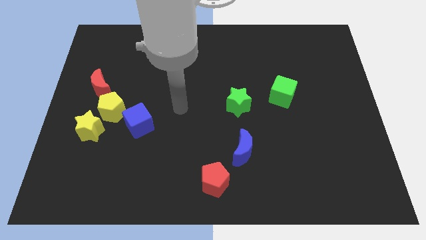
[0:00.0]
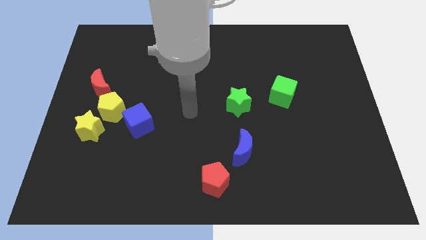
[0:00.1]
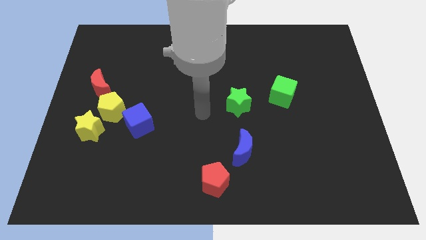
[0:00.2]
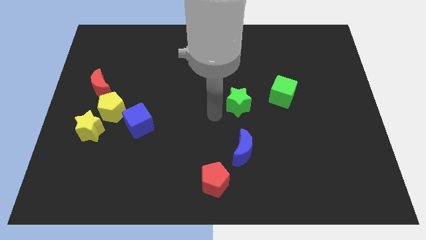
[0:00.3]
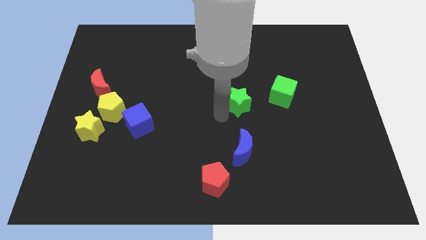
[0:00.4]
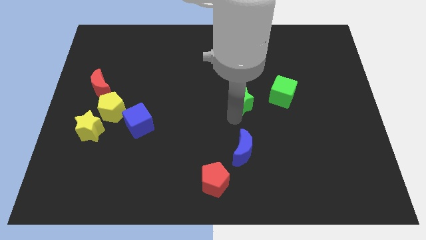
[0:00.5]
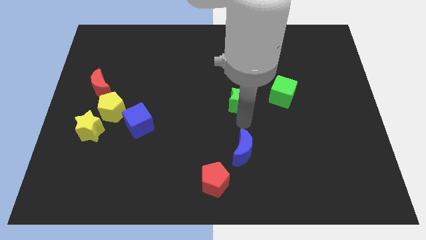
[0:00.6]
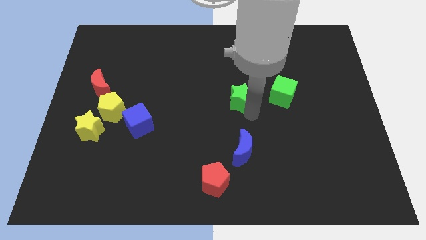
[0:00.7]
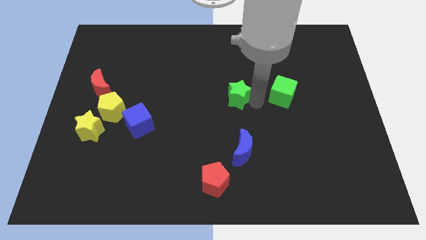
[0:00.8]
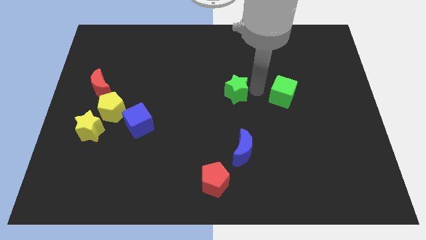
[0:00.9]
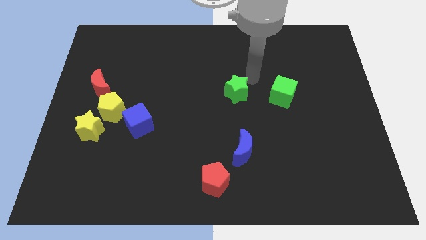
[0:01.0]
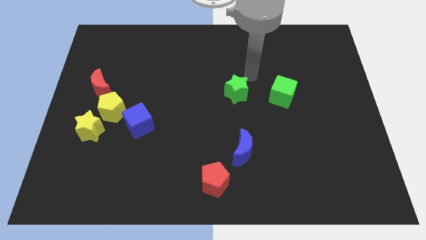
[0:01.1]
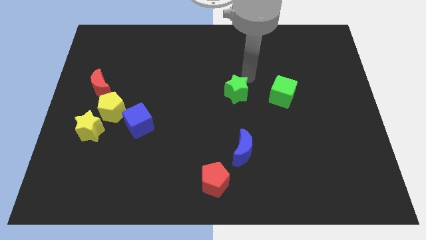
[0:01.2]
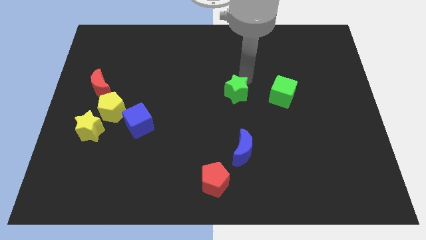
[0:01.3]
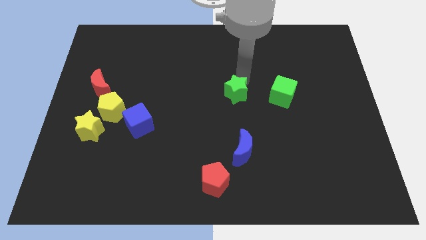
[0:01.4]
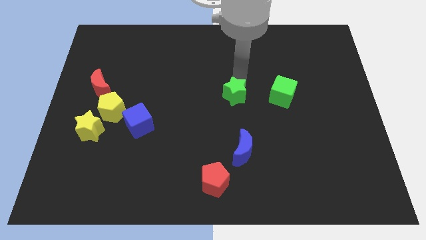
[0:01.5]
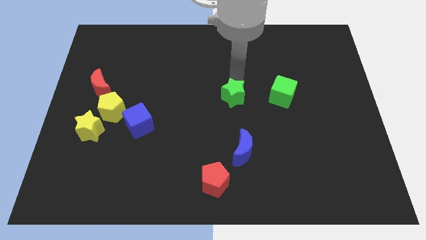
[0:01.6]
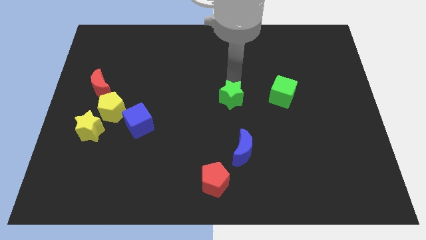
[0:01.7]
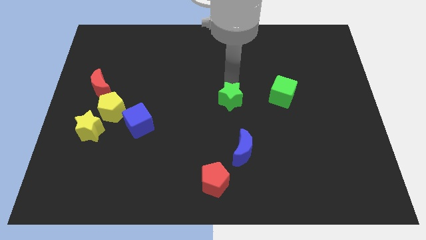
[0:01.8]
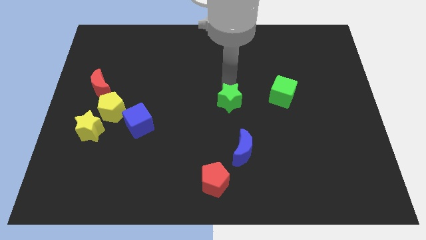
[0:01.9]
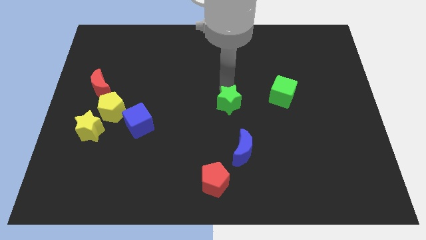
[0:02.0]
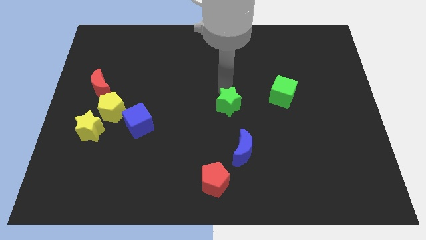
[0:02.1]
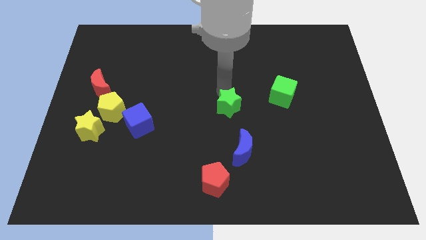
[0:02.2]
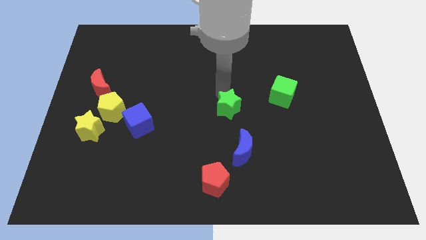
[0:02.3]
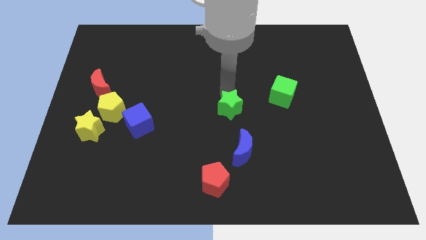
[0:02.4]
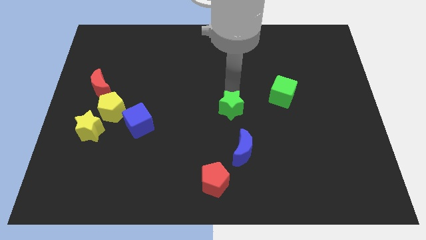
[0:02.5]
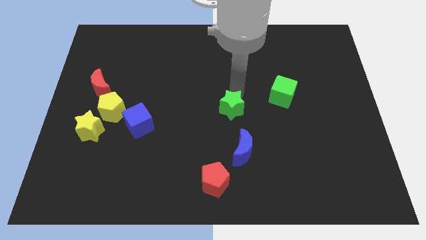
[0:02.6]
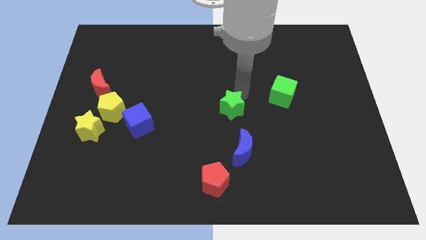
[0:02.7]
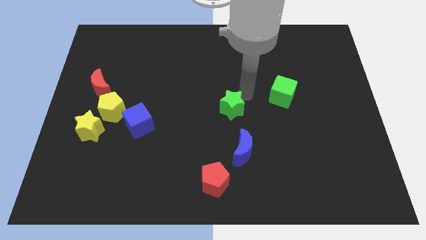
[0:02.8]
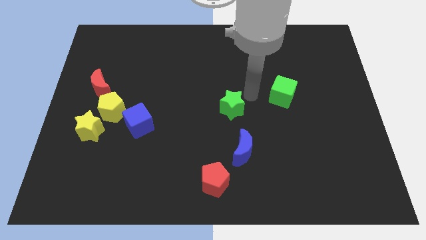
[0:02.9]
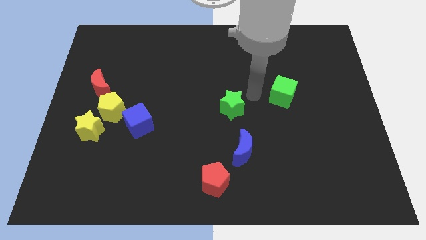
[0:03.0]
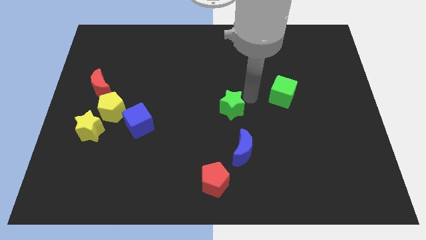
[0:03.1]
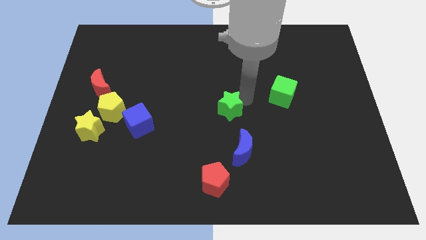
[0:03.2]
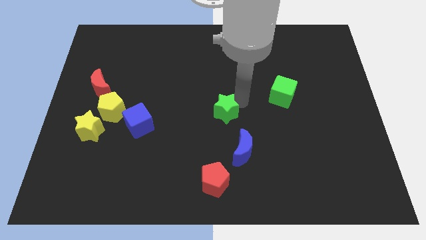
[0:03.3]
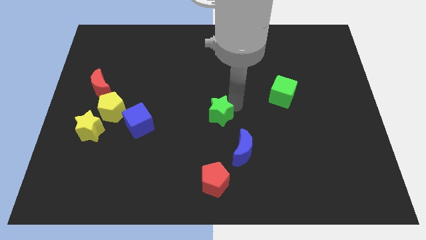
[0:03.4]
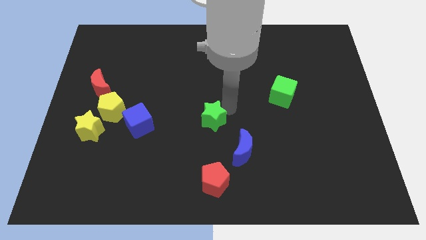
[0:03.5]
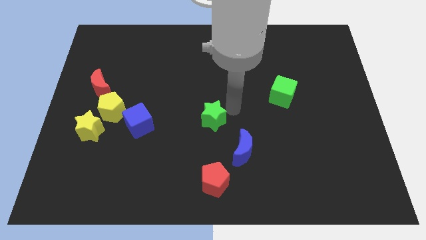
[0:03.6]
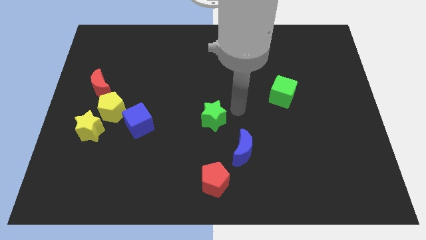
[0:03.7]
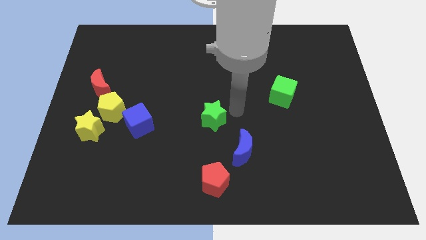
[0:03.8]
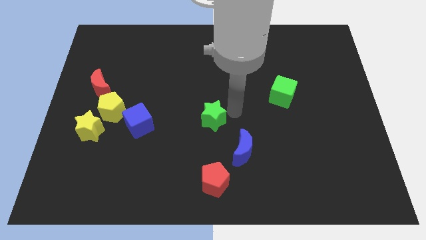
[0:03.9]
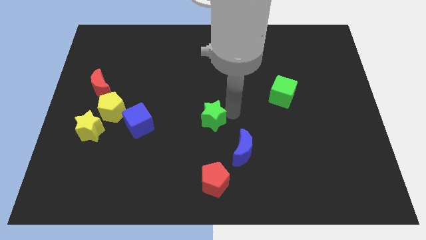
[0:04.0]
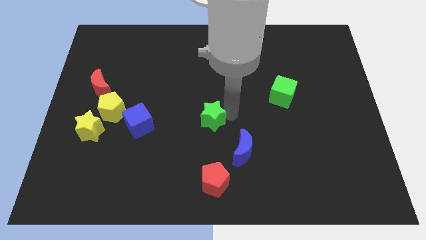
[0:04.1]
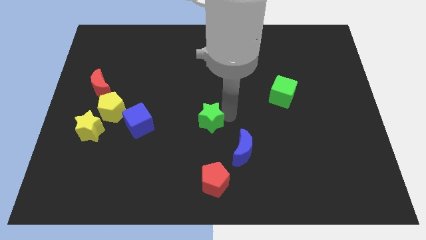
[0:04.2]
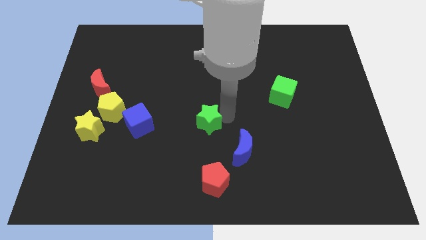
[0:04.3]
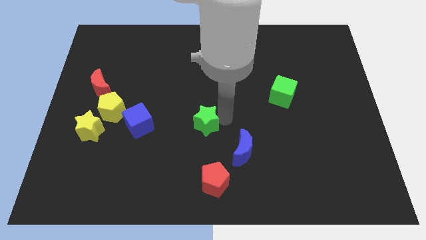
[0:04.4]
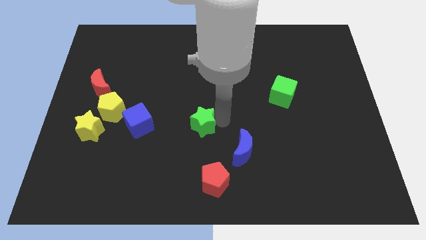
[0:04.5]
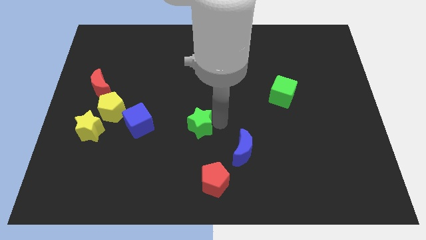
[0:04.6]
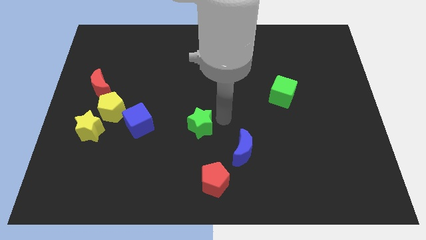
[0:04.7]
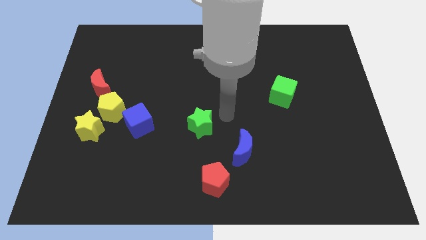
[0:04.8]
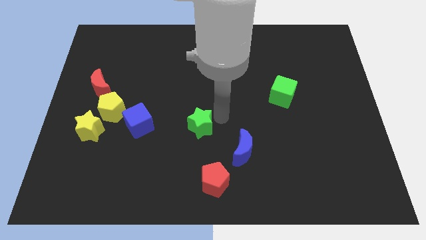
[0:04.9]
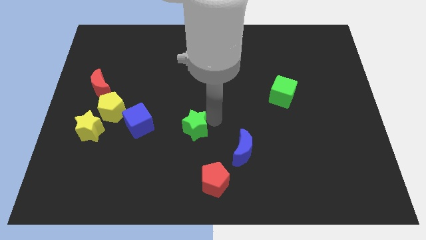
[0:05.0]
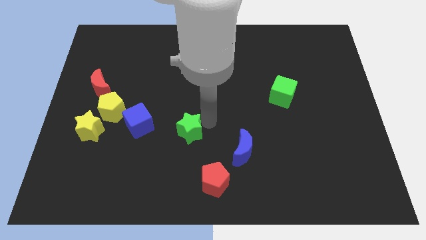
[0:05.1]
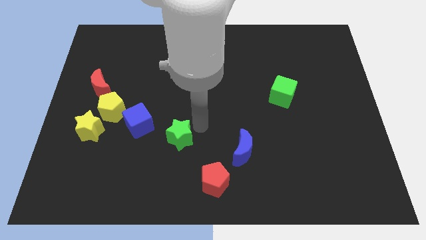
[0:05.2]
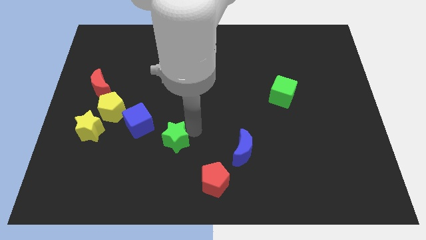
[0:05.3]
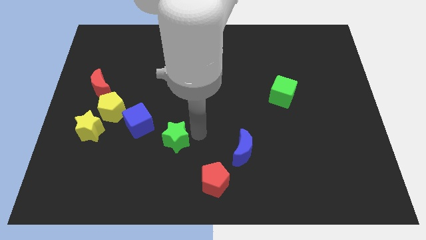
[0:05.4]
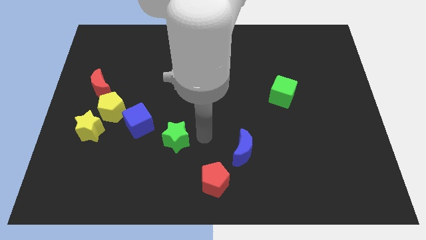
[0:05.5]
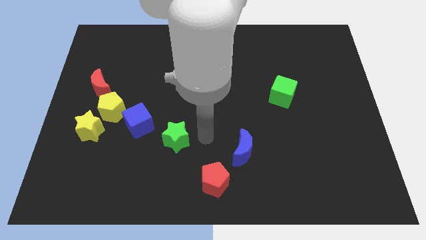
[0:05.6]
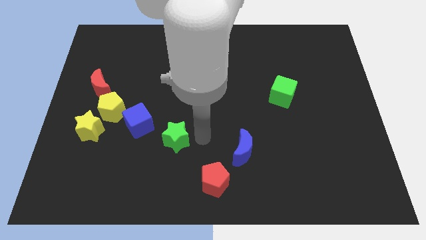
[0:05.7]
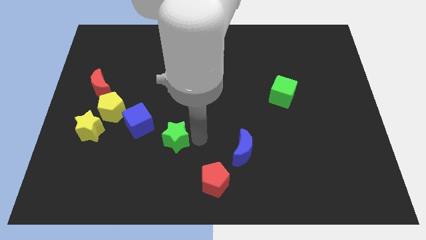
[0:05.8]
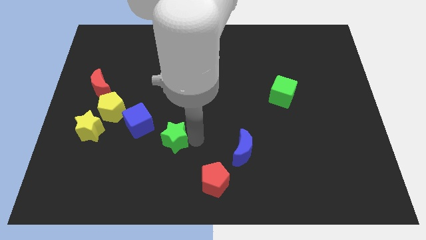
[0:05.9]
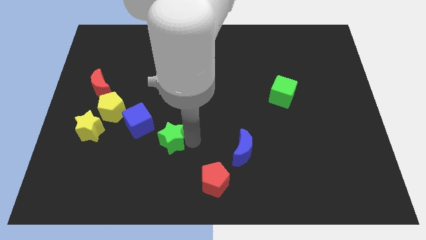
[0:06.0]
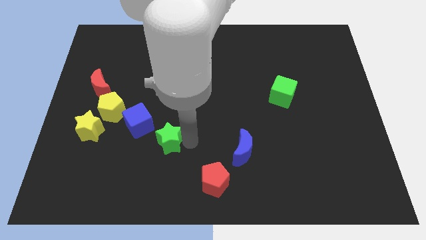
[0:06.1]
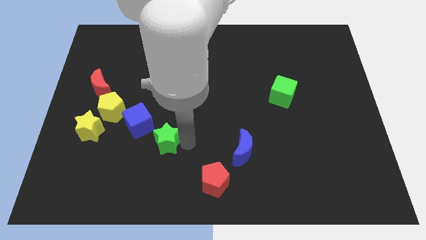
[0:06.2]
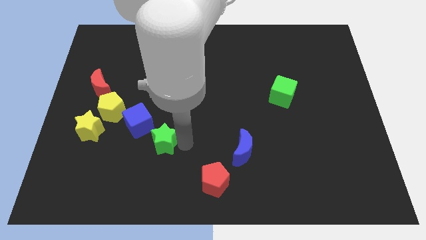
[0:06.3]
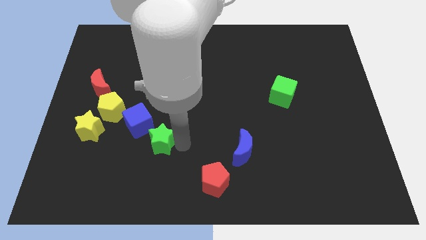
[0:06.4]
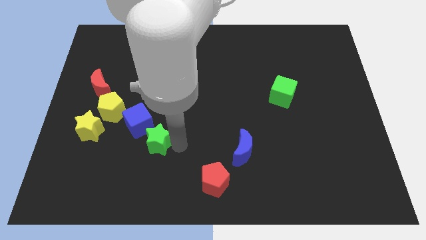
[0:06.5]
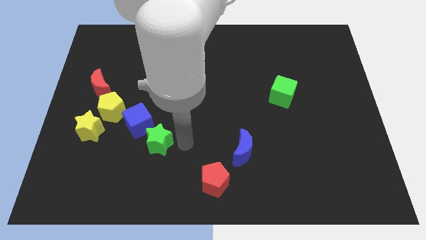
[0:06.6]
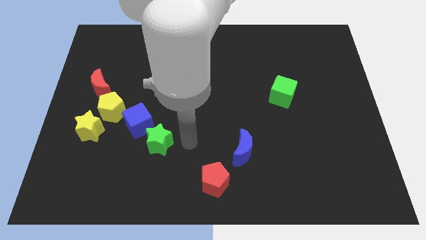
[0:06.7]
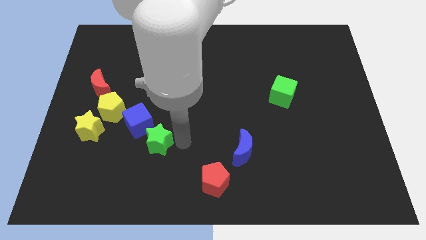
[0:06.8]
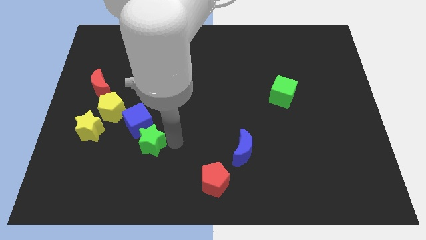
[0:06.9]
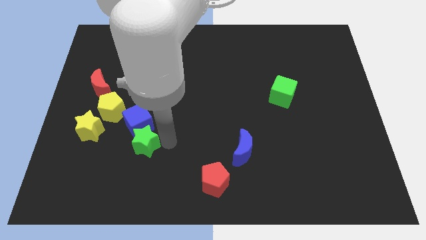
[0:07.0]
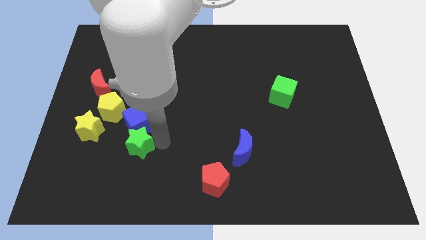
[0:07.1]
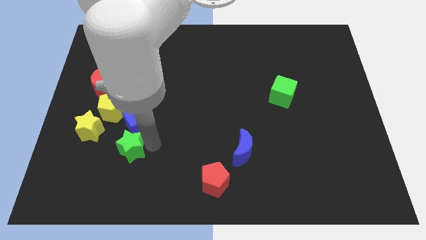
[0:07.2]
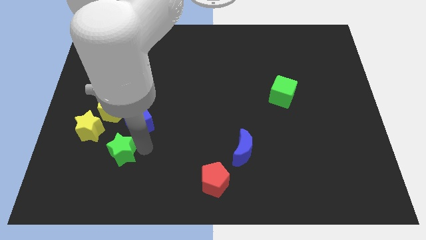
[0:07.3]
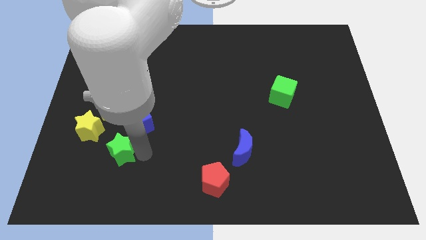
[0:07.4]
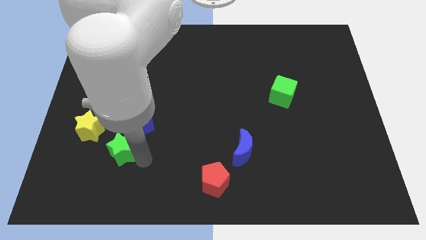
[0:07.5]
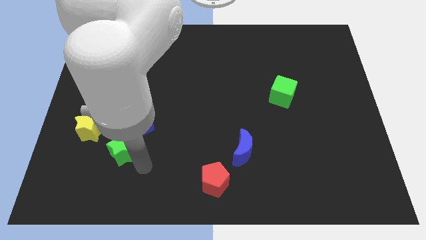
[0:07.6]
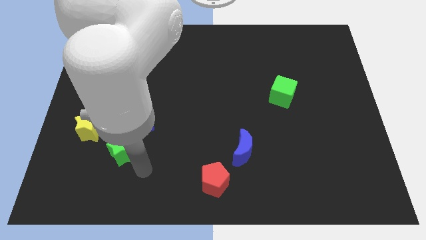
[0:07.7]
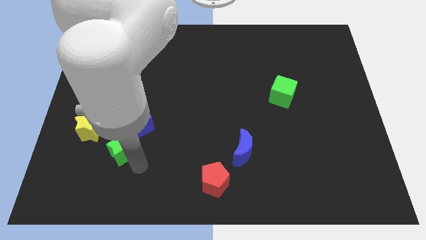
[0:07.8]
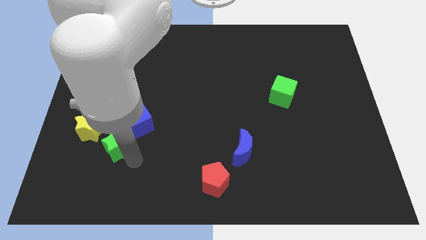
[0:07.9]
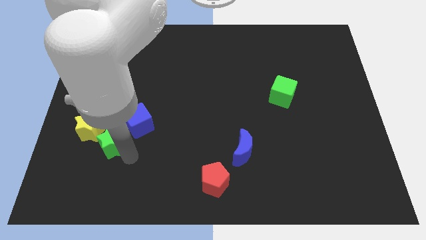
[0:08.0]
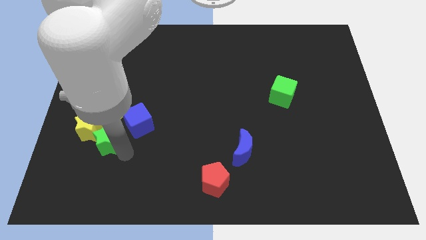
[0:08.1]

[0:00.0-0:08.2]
push the green star next to the yellow star
